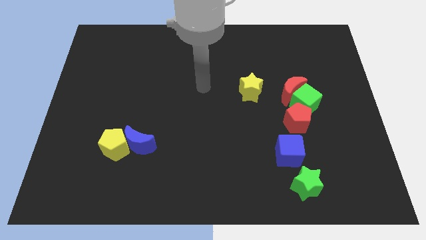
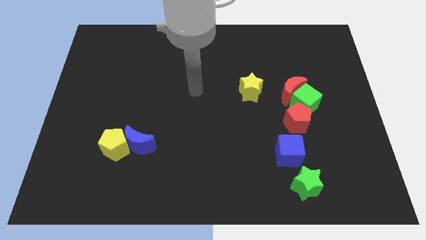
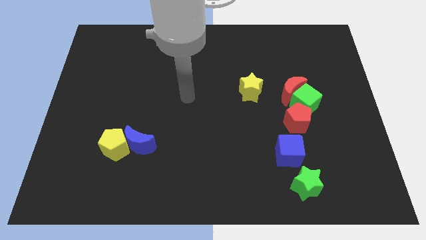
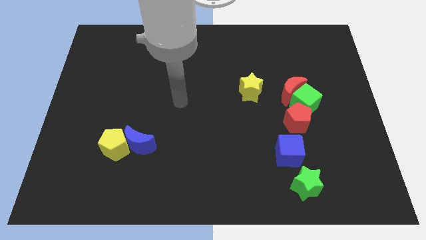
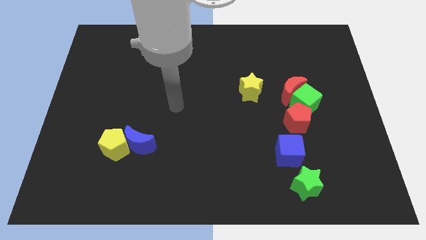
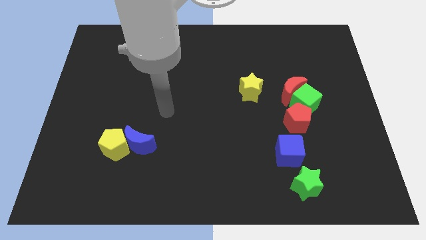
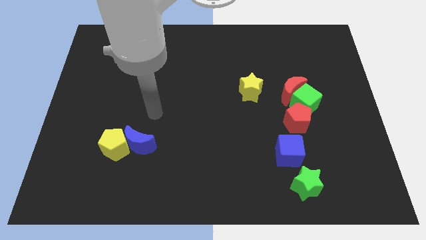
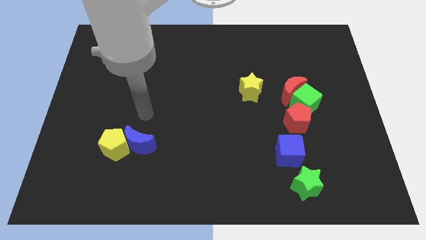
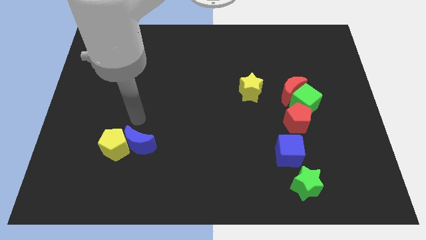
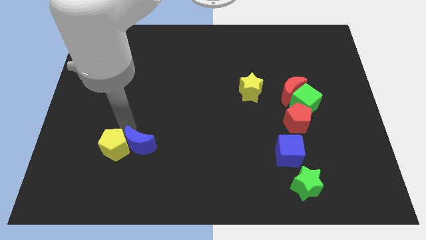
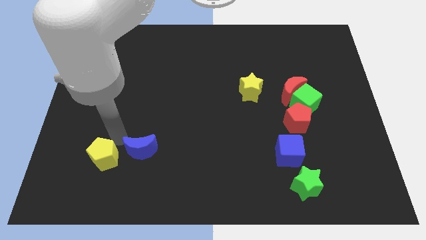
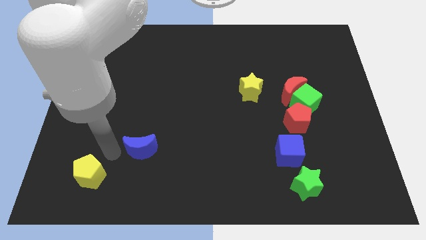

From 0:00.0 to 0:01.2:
pull the blue moon apart from the yellow pentagon

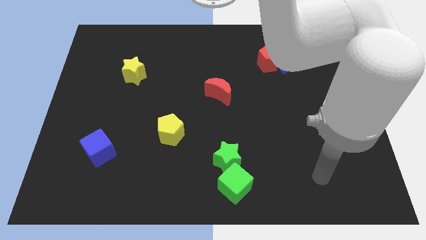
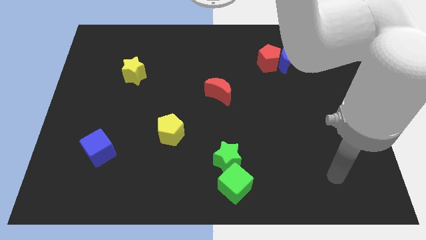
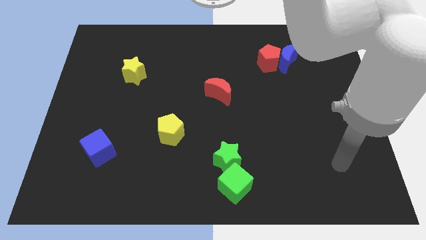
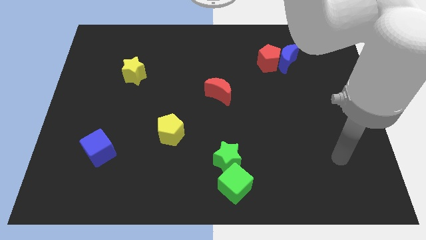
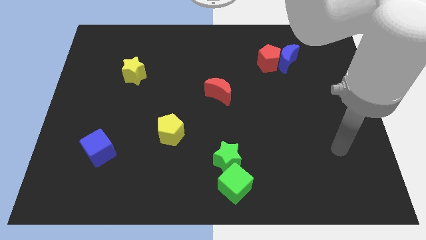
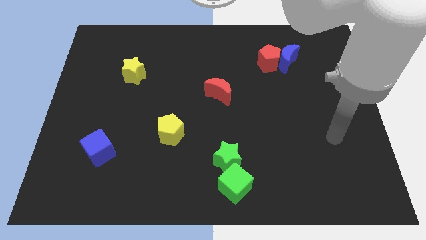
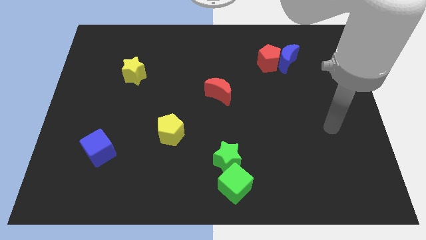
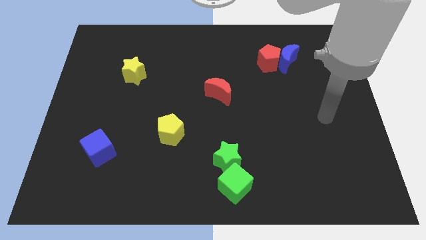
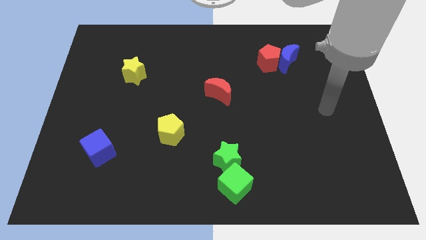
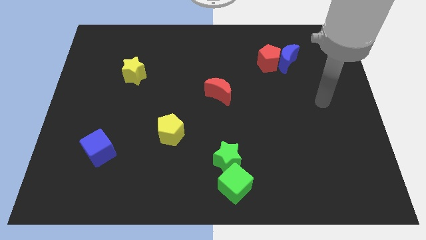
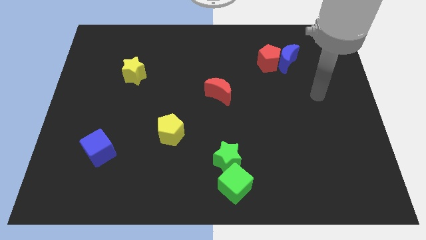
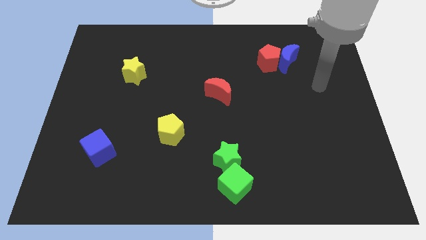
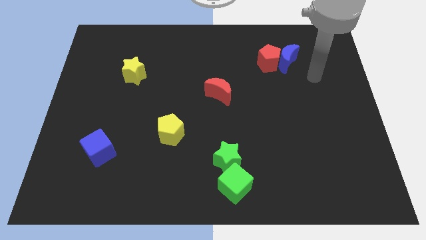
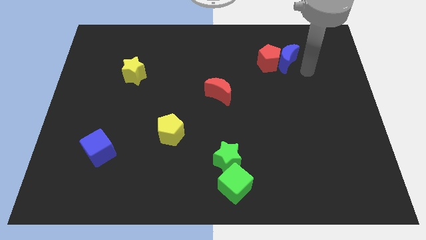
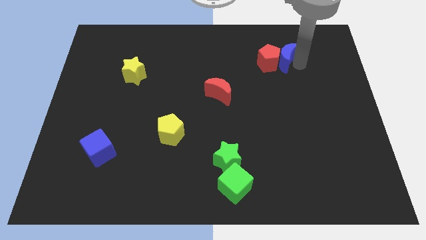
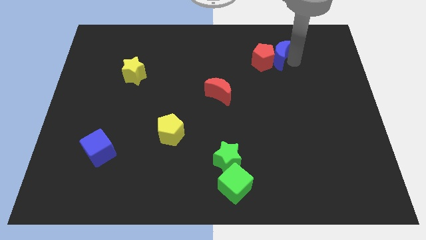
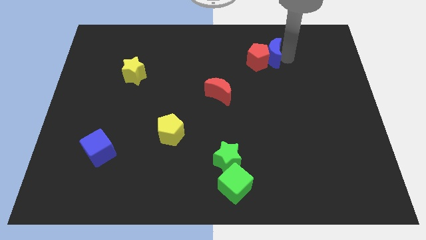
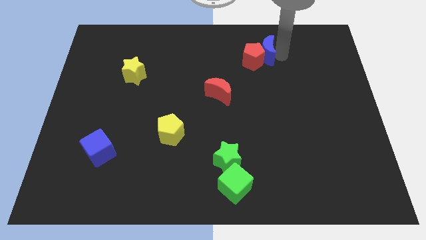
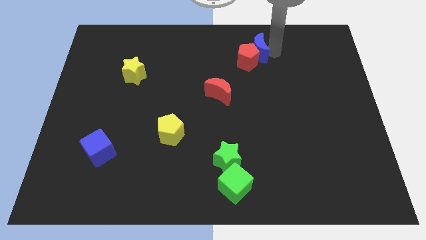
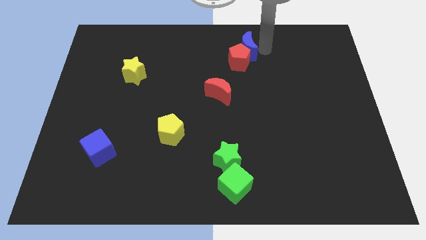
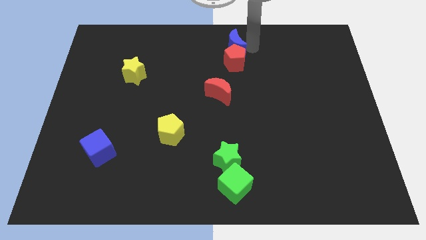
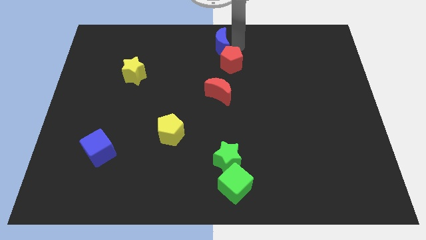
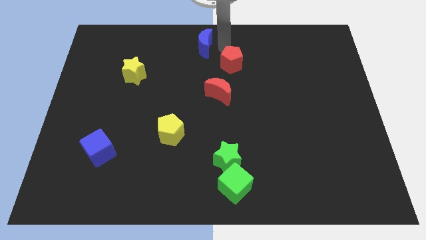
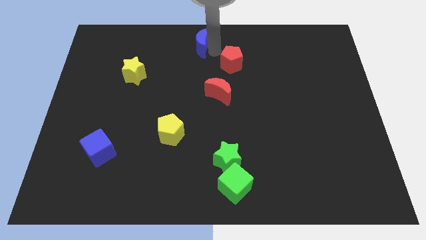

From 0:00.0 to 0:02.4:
pull the red pentagon apart from the blue moon

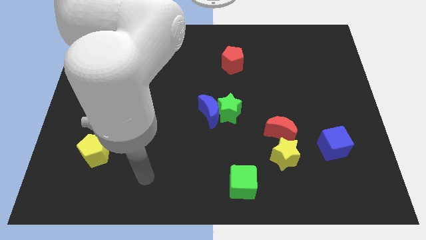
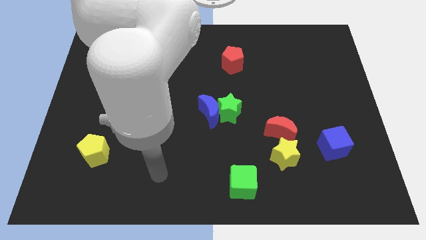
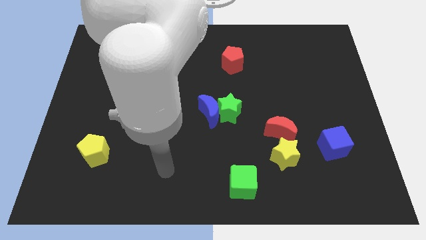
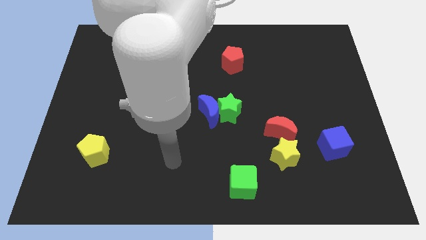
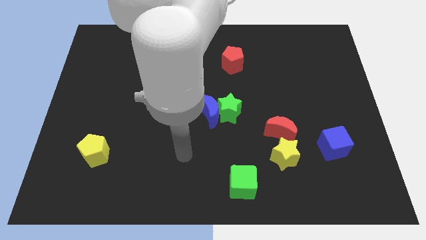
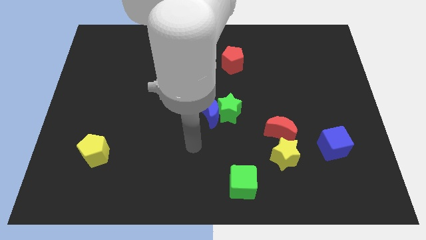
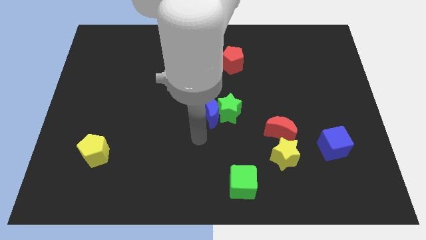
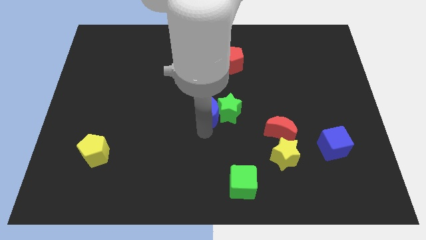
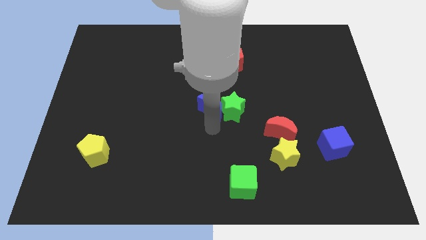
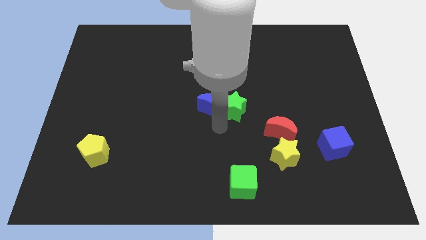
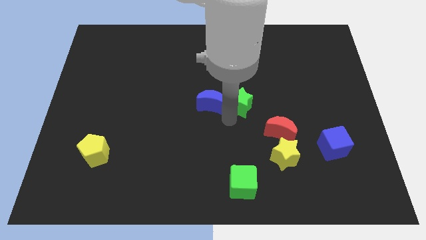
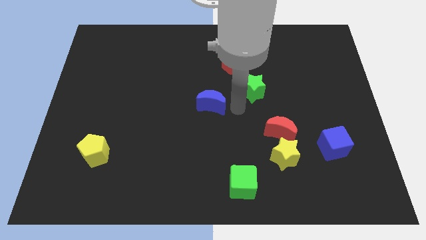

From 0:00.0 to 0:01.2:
separate the blue moon from the green star

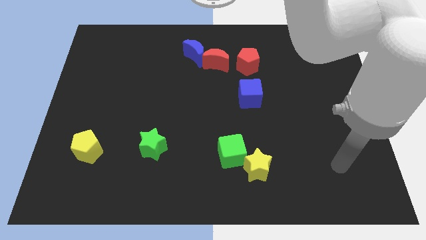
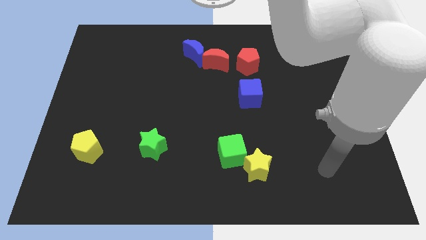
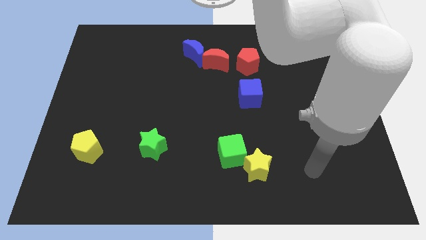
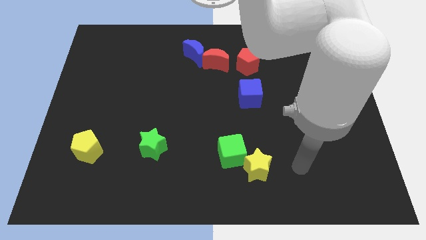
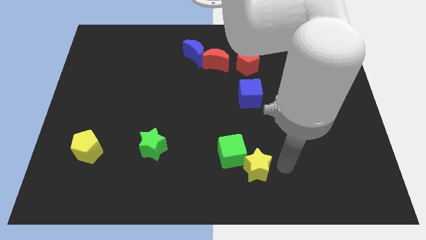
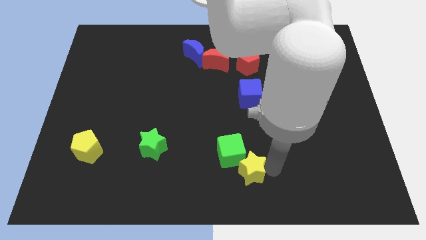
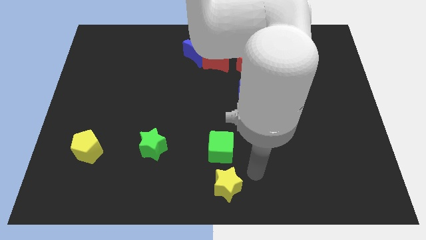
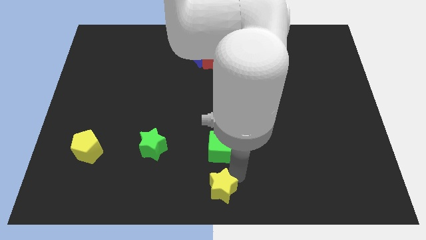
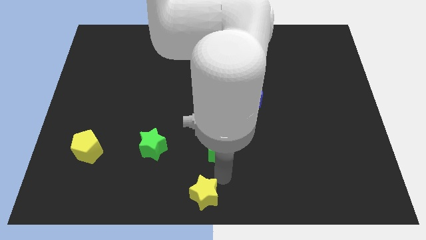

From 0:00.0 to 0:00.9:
move the green cube away from the yellow star

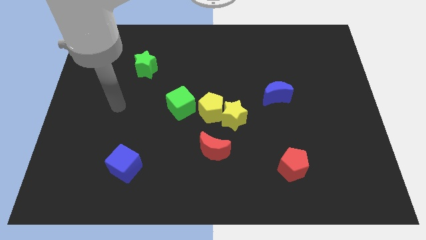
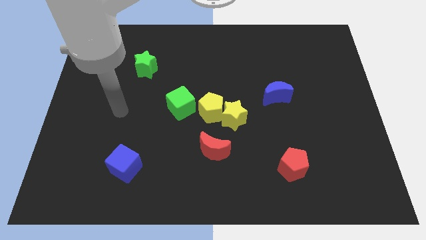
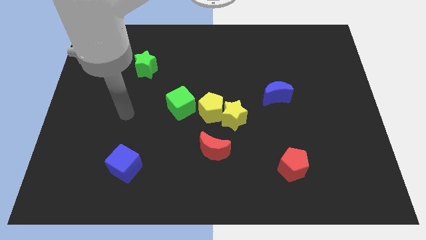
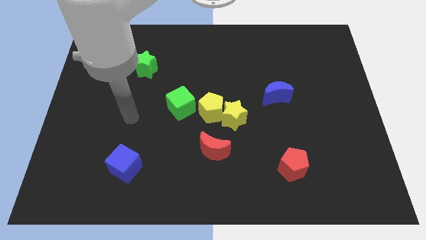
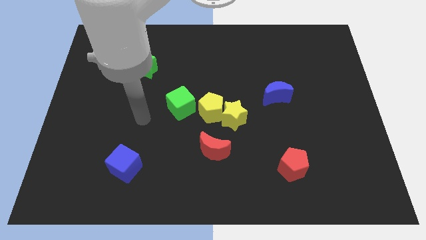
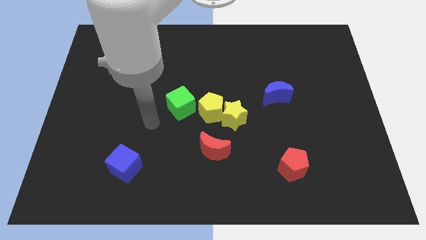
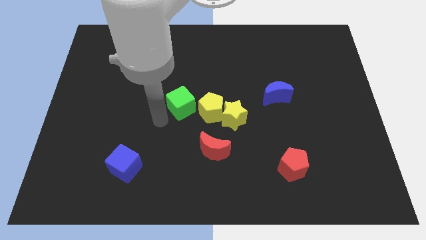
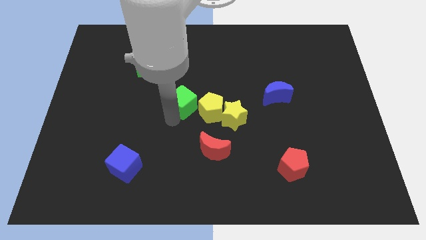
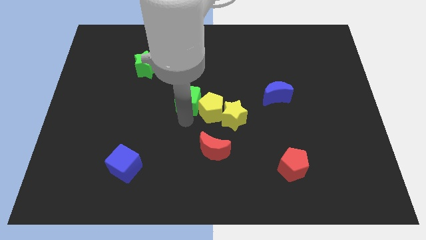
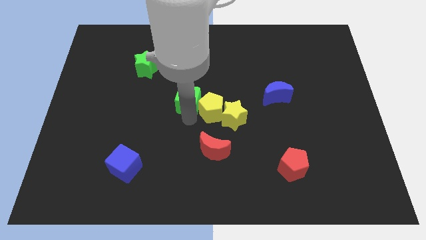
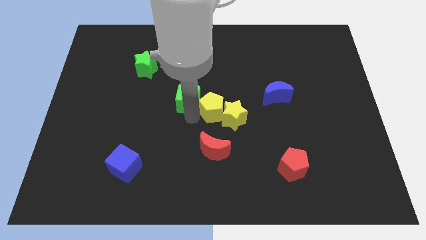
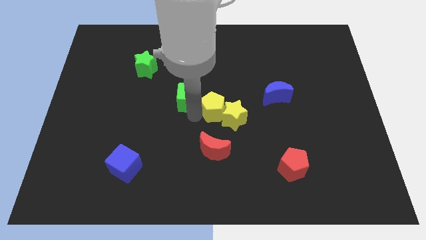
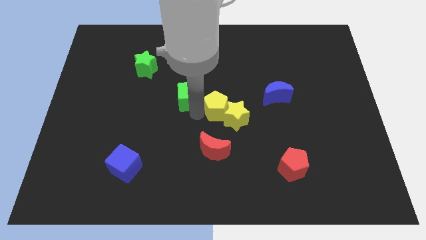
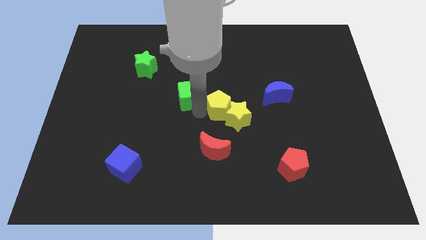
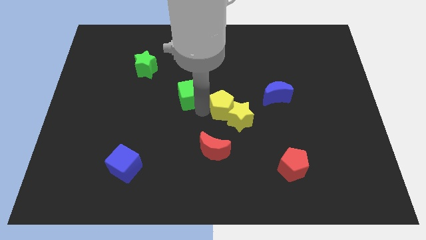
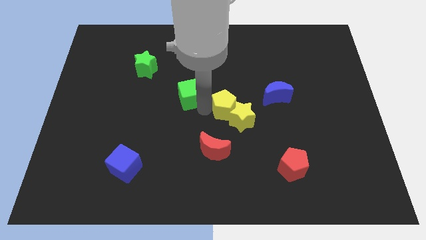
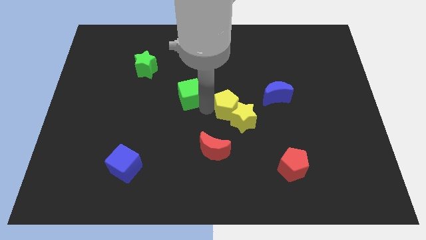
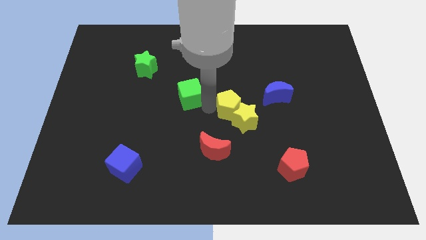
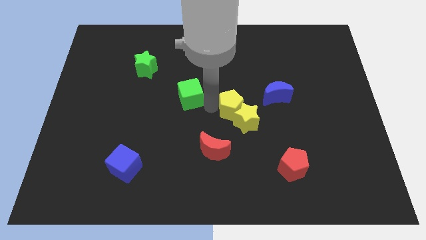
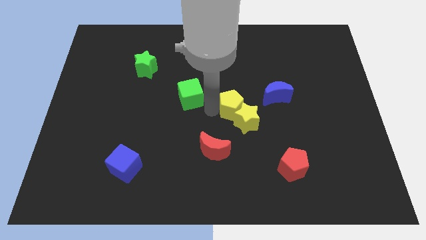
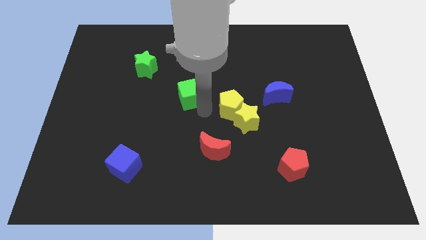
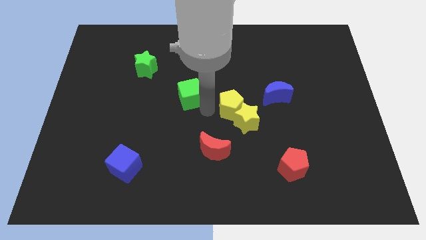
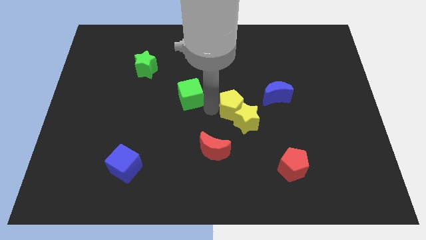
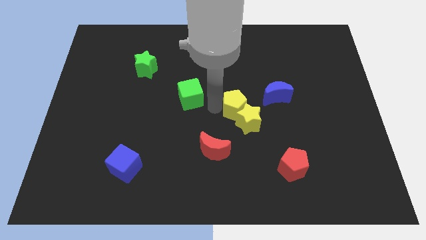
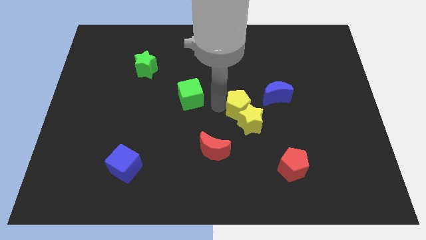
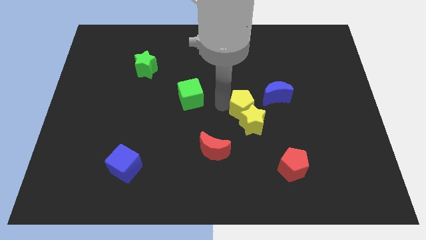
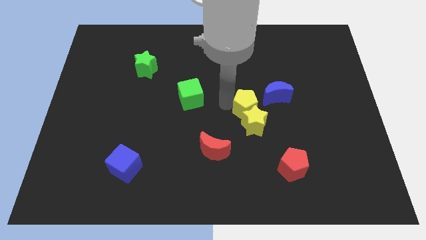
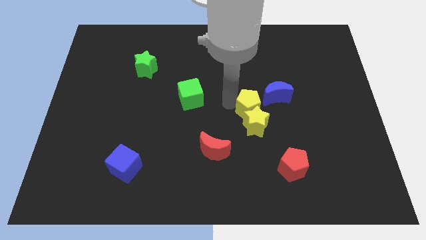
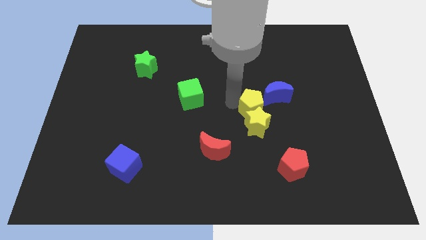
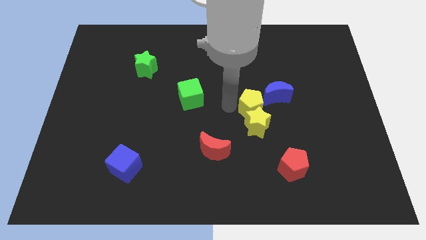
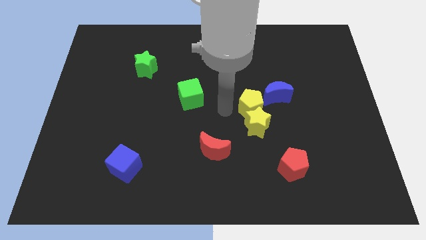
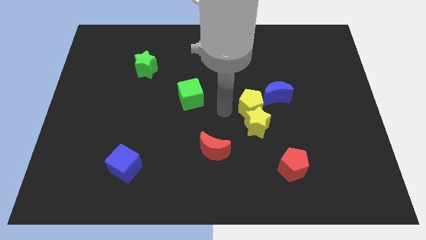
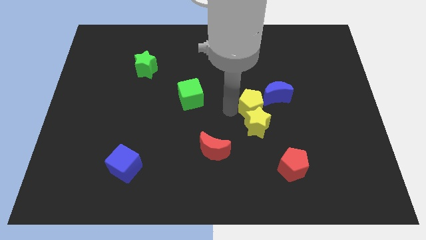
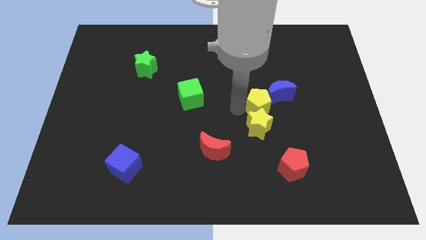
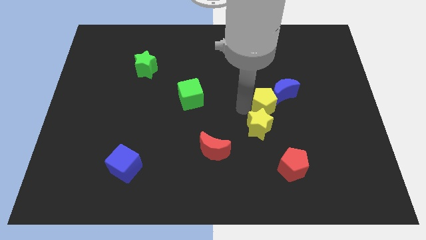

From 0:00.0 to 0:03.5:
pull the yellow pentagon apart from the yellow star and green cube

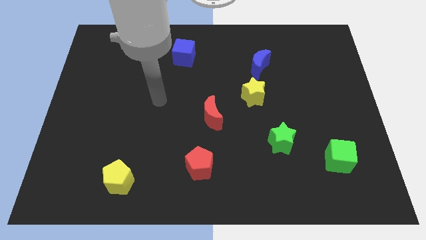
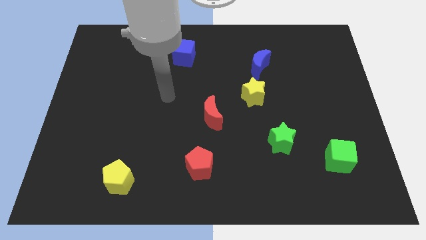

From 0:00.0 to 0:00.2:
separate the blue moon from the yellow star
